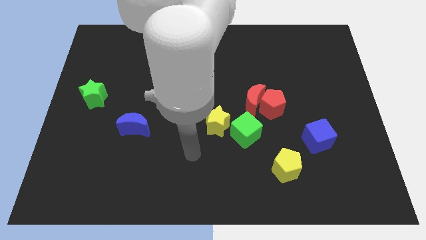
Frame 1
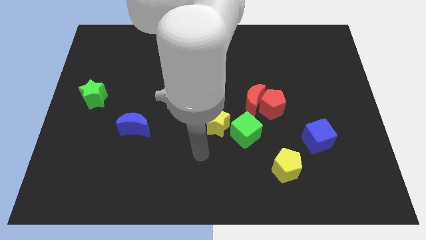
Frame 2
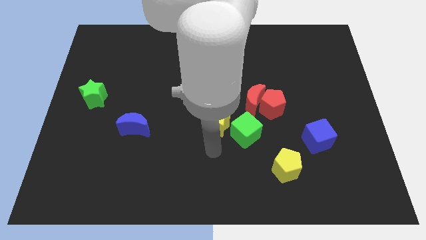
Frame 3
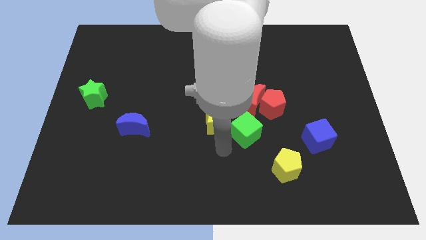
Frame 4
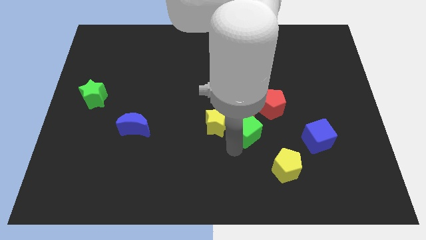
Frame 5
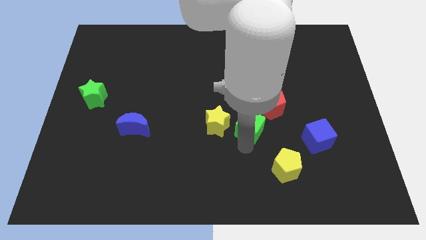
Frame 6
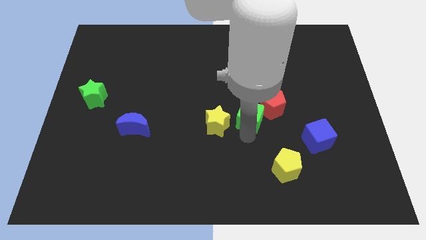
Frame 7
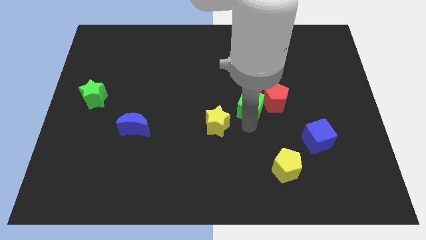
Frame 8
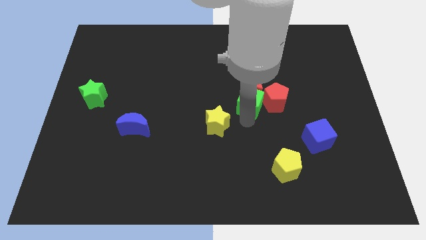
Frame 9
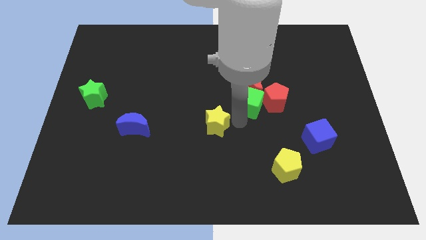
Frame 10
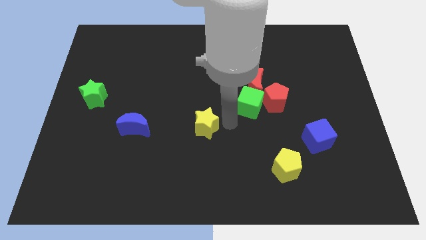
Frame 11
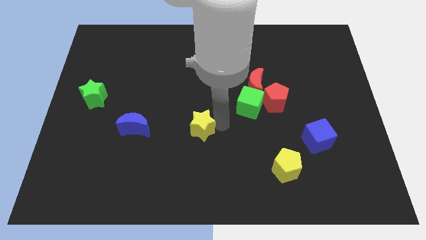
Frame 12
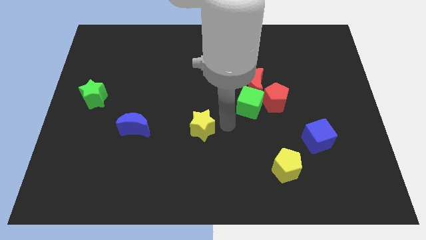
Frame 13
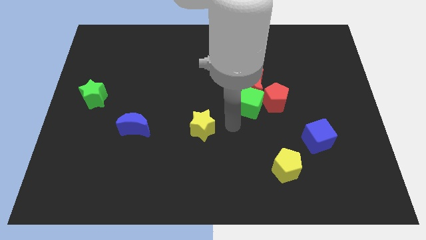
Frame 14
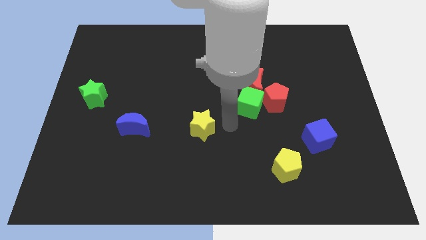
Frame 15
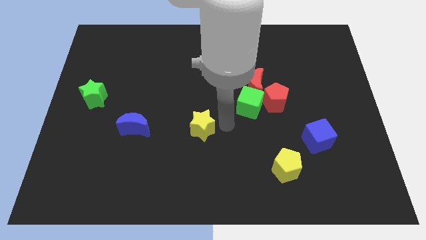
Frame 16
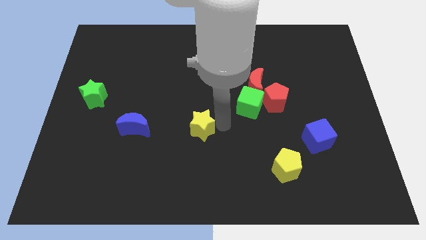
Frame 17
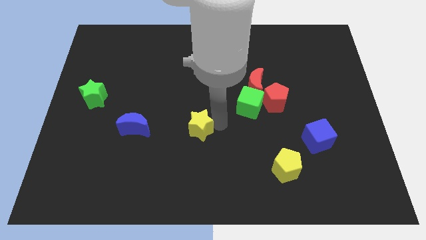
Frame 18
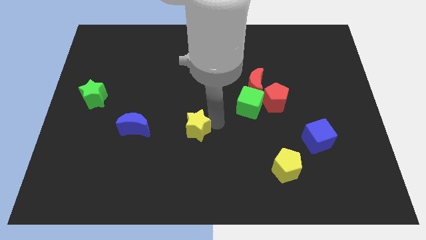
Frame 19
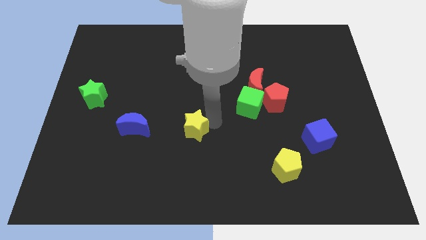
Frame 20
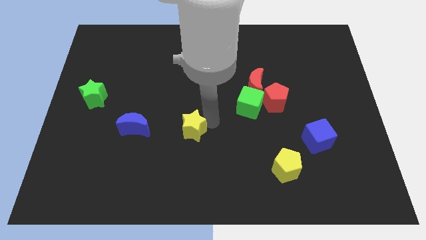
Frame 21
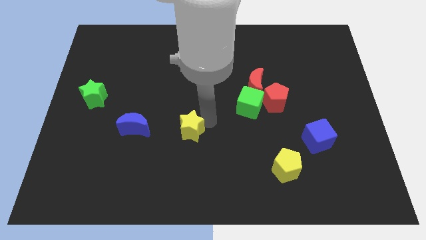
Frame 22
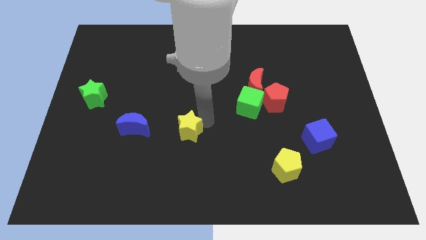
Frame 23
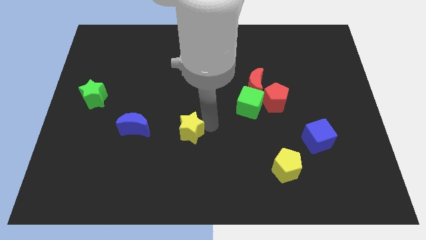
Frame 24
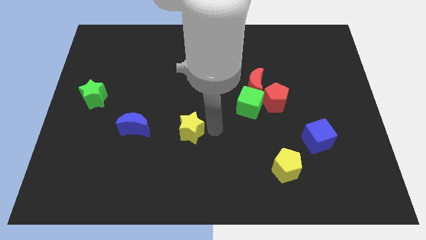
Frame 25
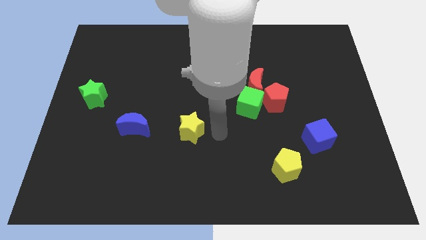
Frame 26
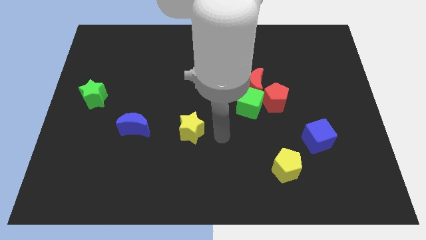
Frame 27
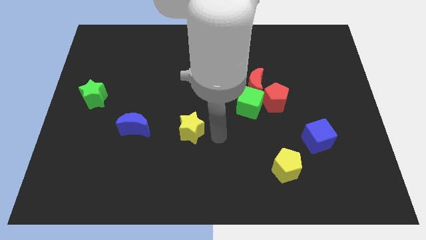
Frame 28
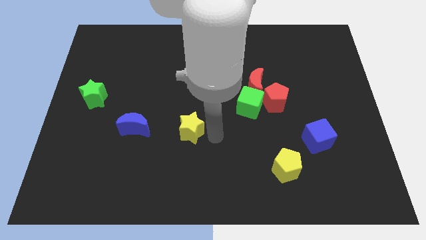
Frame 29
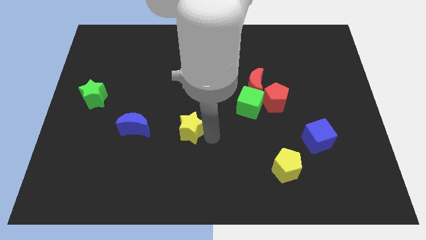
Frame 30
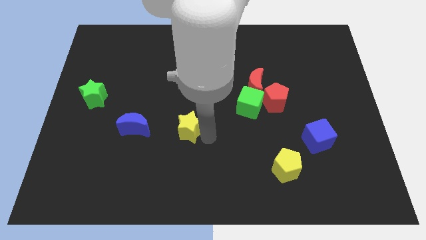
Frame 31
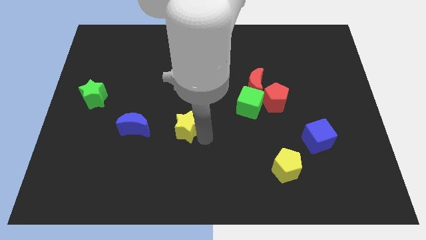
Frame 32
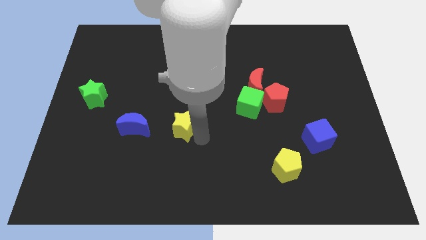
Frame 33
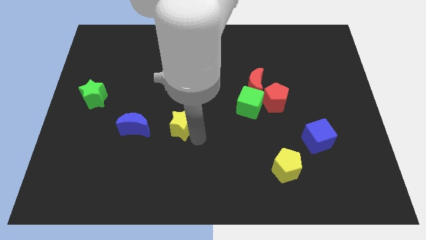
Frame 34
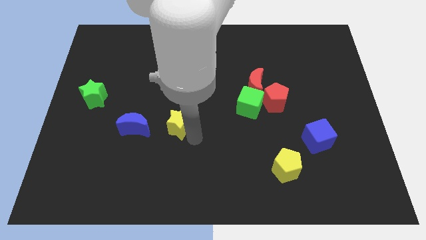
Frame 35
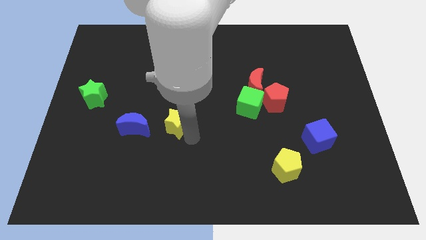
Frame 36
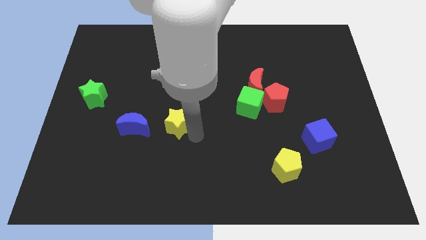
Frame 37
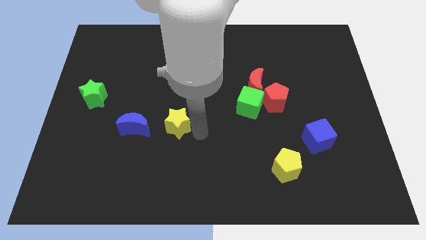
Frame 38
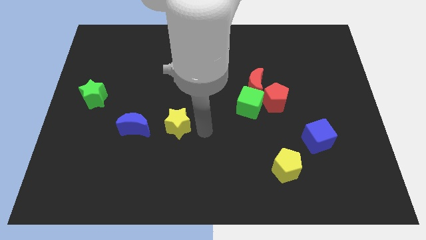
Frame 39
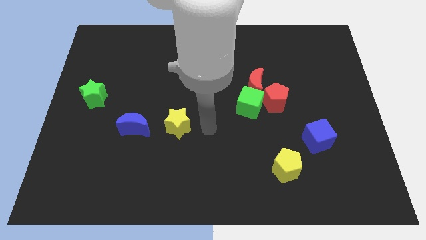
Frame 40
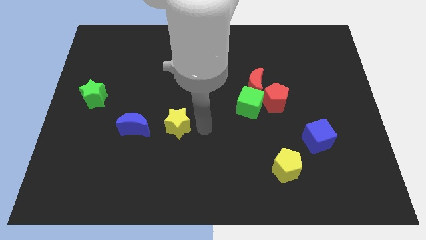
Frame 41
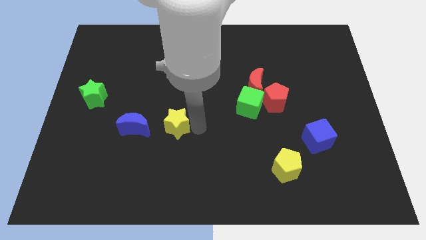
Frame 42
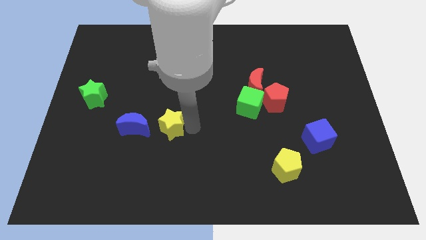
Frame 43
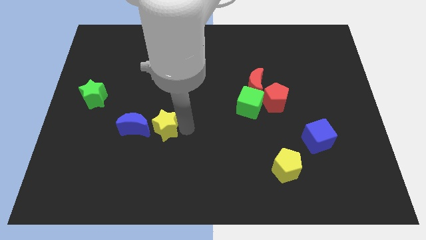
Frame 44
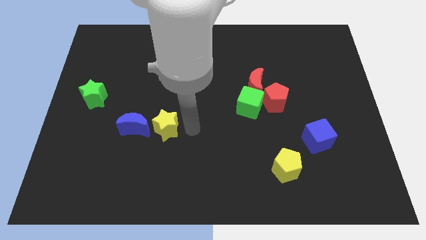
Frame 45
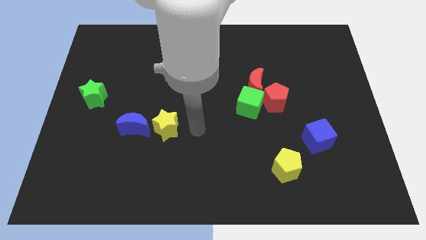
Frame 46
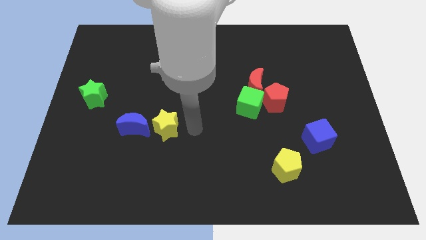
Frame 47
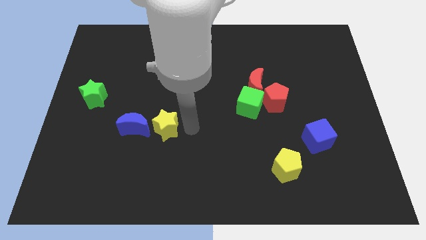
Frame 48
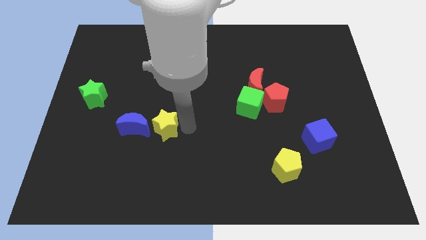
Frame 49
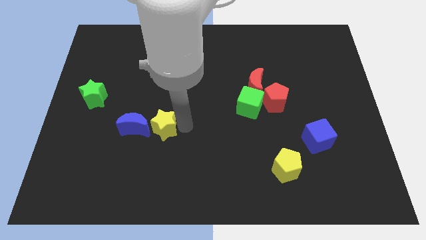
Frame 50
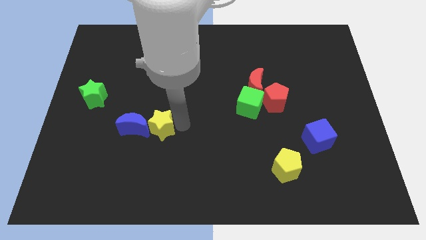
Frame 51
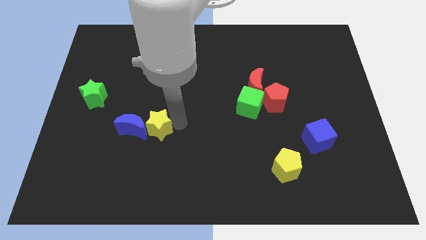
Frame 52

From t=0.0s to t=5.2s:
push the yellow star to the blue moon

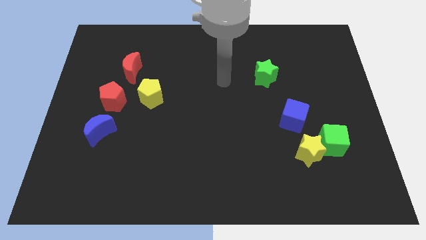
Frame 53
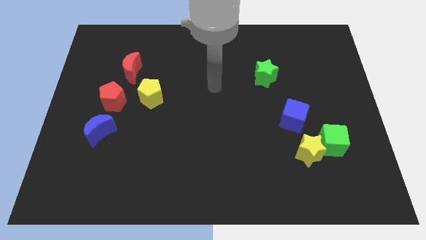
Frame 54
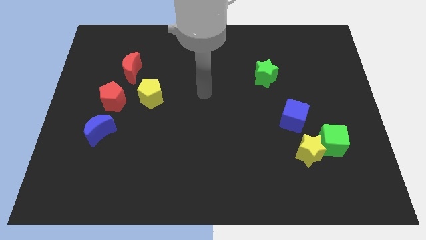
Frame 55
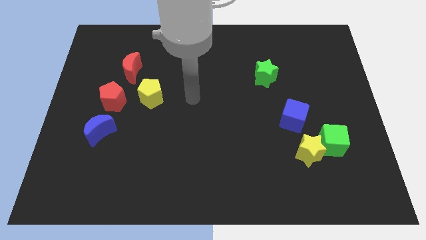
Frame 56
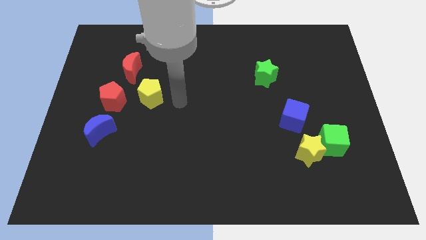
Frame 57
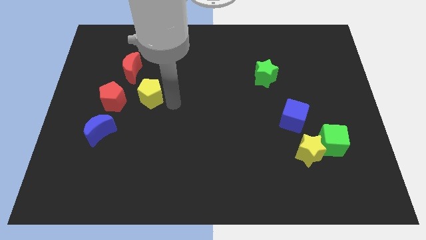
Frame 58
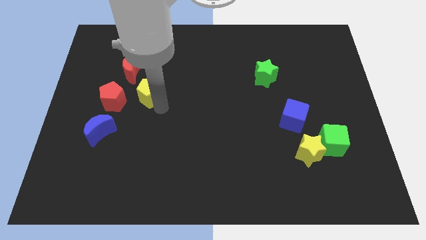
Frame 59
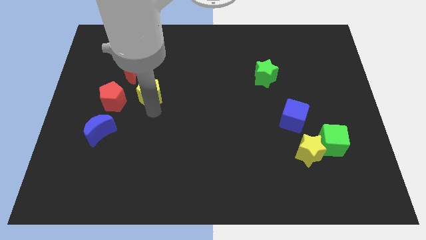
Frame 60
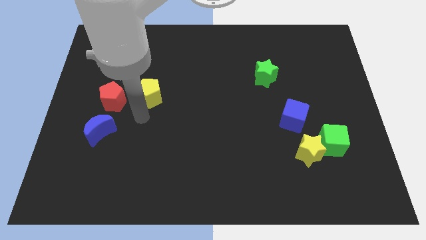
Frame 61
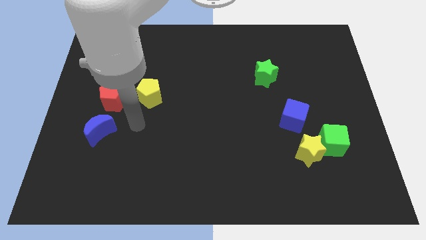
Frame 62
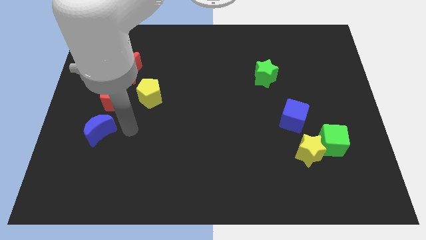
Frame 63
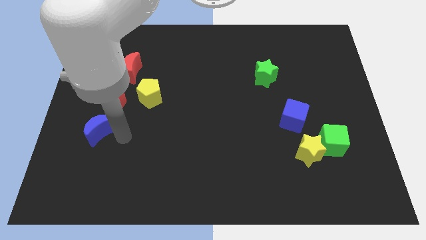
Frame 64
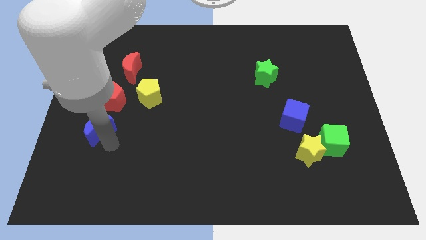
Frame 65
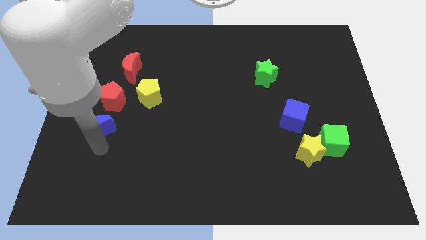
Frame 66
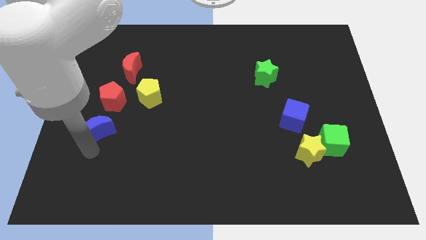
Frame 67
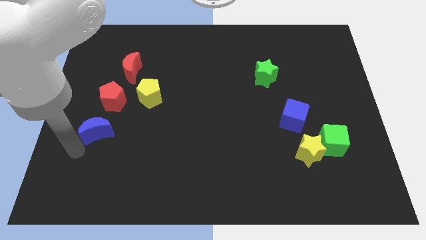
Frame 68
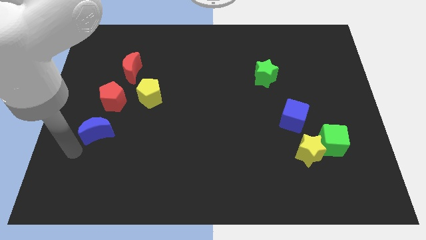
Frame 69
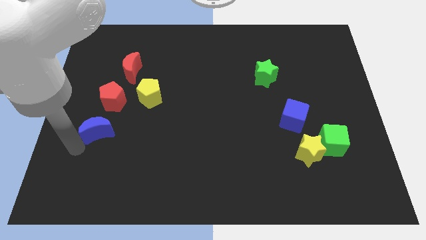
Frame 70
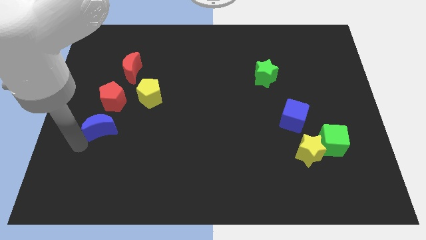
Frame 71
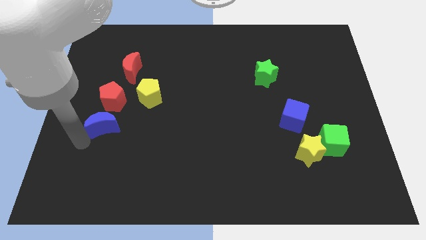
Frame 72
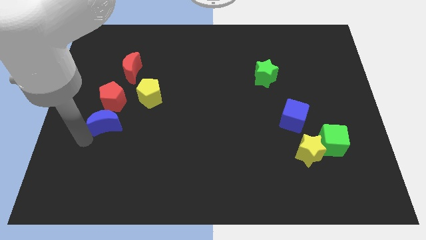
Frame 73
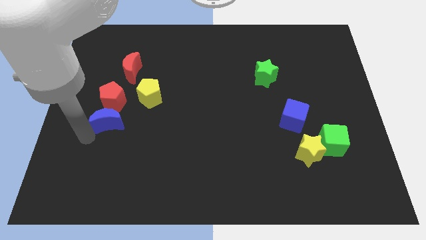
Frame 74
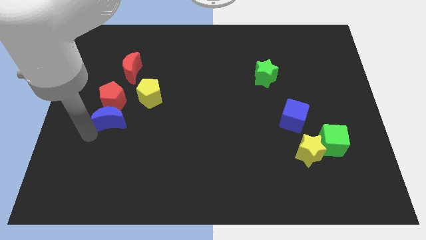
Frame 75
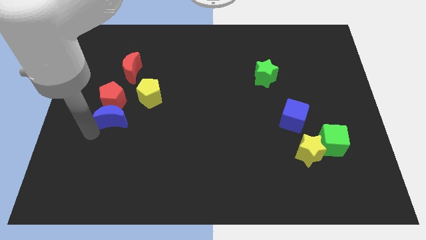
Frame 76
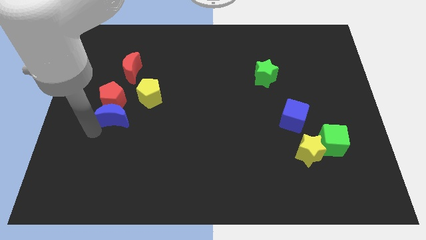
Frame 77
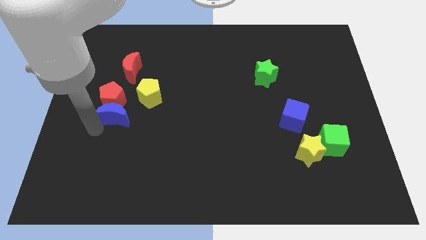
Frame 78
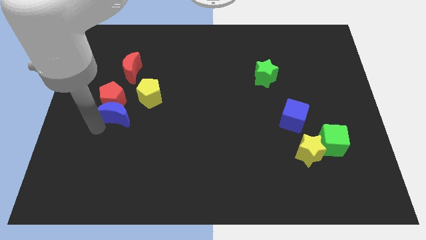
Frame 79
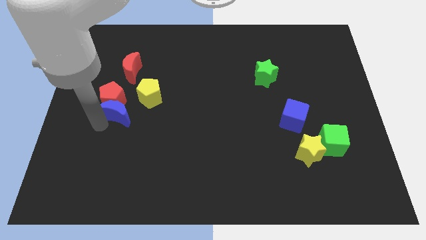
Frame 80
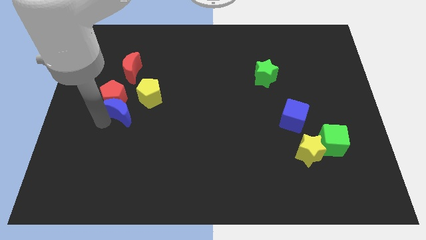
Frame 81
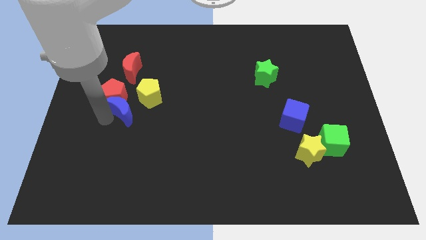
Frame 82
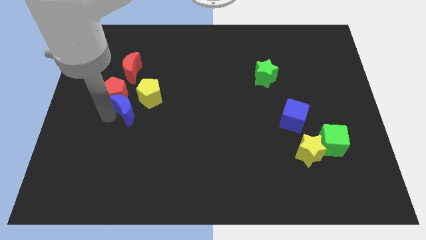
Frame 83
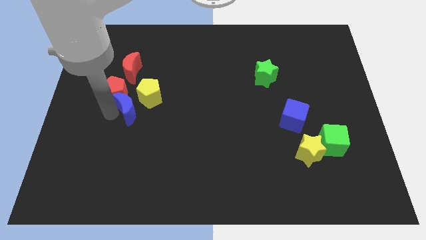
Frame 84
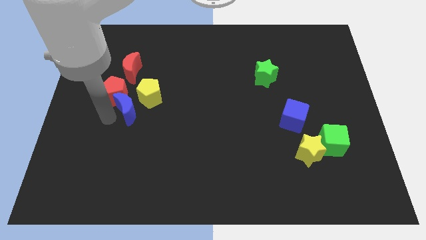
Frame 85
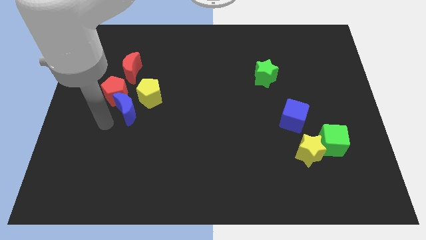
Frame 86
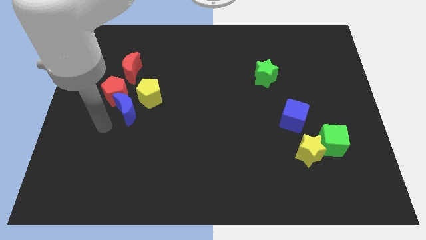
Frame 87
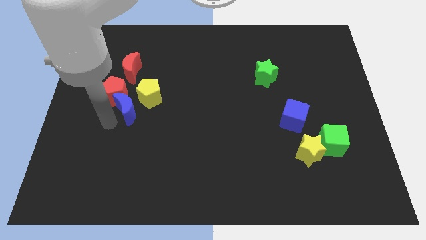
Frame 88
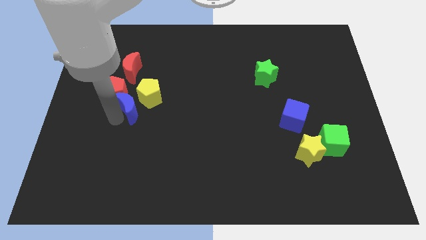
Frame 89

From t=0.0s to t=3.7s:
slide the blue moon towards the yellow pentagon
